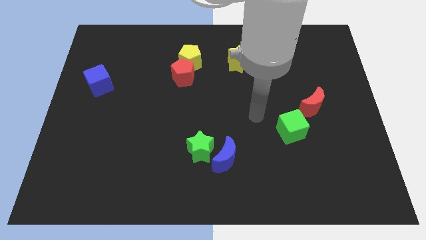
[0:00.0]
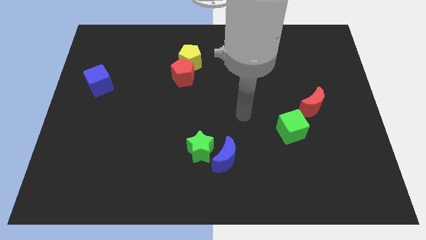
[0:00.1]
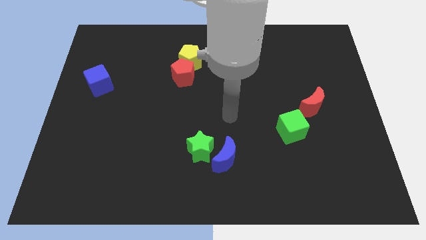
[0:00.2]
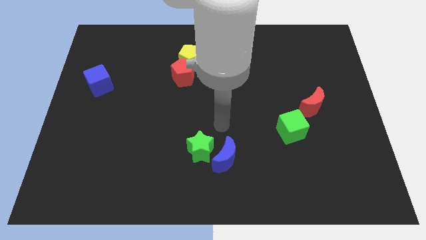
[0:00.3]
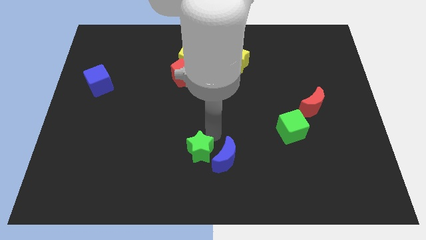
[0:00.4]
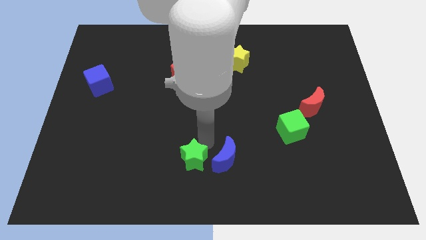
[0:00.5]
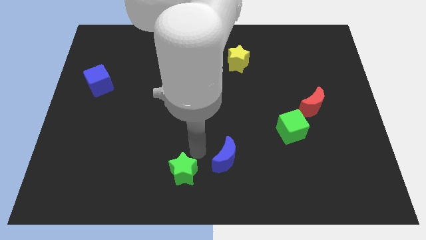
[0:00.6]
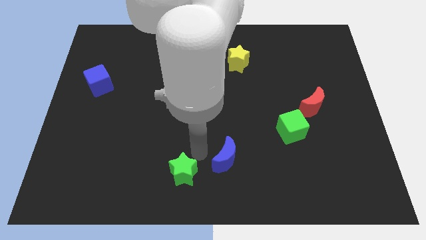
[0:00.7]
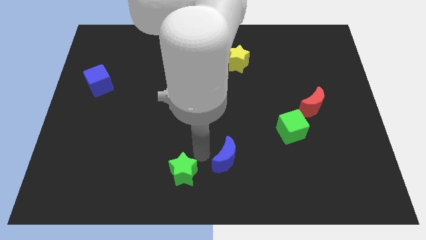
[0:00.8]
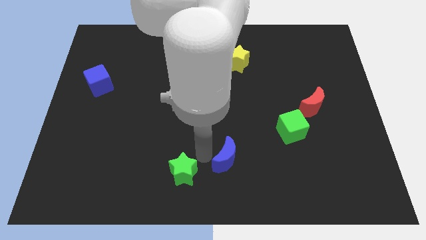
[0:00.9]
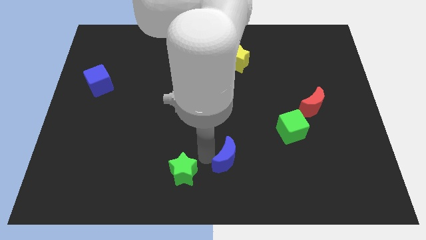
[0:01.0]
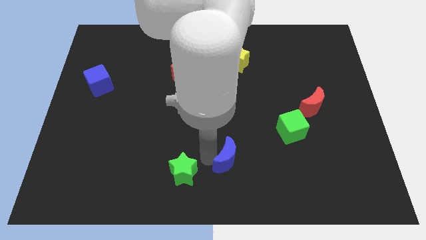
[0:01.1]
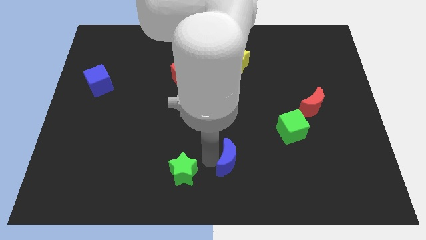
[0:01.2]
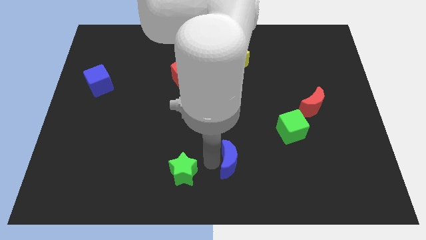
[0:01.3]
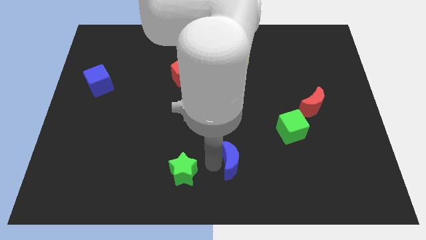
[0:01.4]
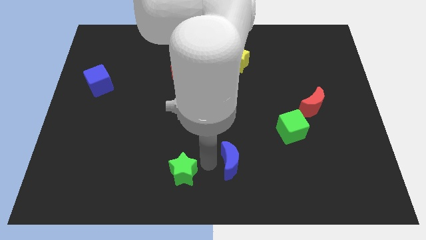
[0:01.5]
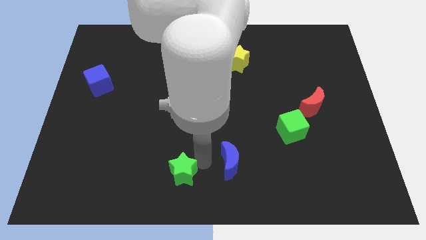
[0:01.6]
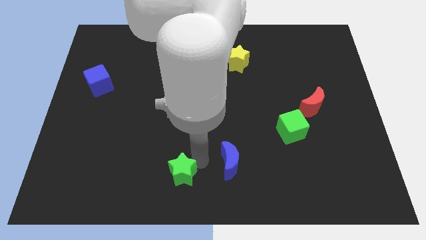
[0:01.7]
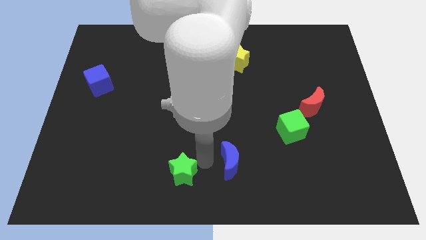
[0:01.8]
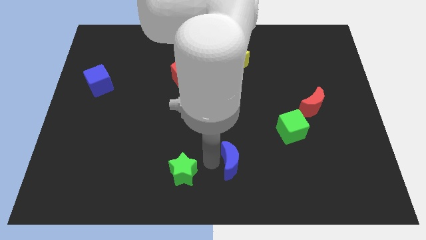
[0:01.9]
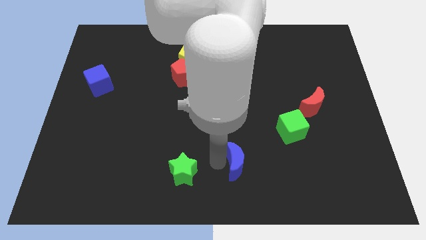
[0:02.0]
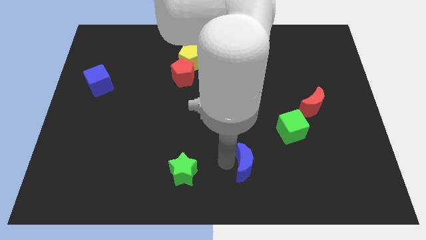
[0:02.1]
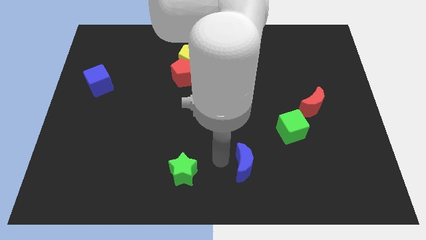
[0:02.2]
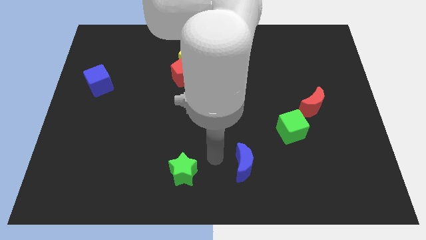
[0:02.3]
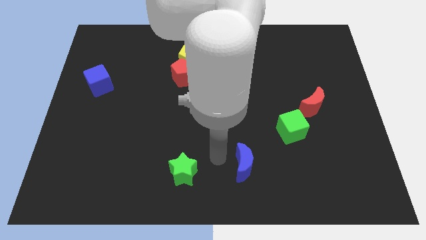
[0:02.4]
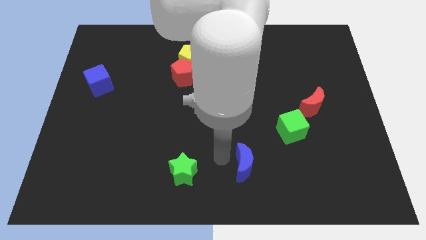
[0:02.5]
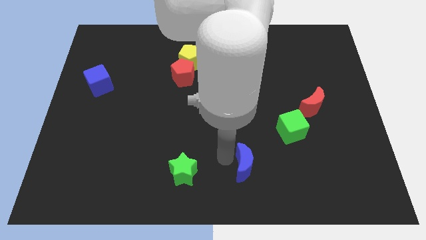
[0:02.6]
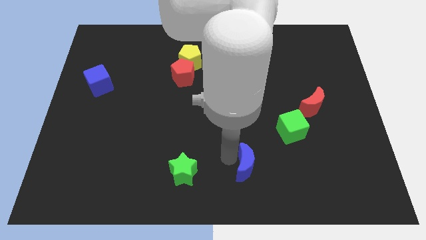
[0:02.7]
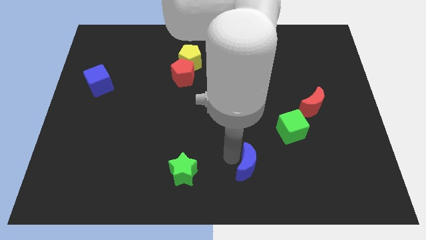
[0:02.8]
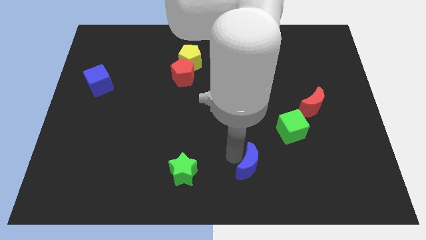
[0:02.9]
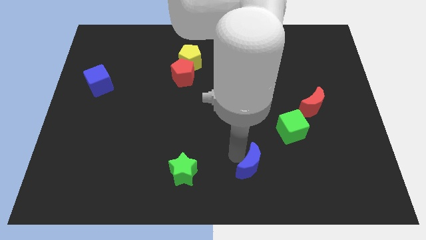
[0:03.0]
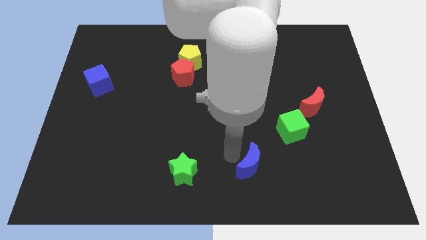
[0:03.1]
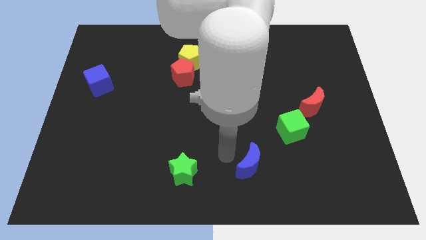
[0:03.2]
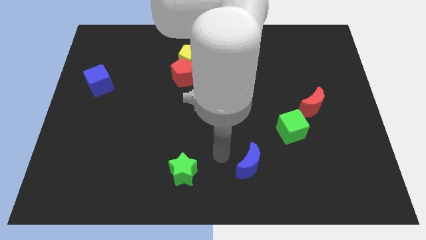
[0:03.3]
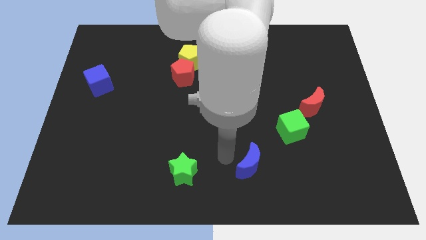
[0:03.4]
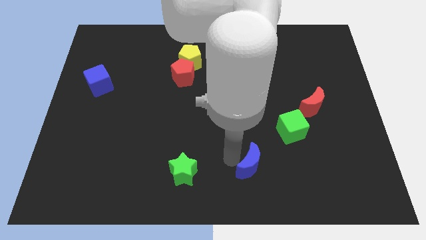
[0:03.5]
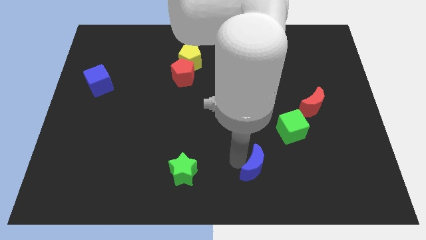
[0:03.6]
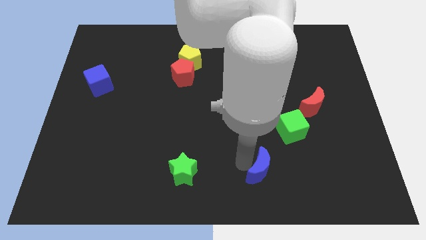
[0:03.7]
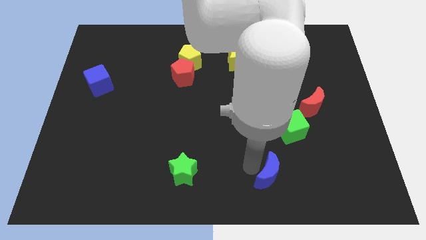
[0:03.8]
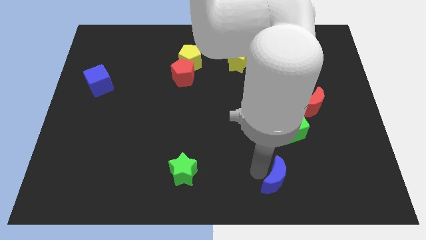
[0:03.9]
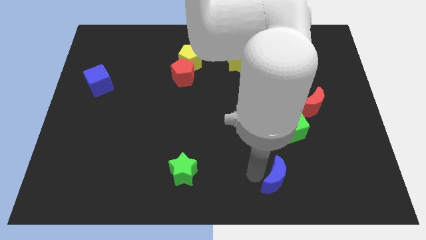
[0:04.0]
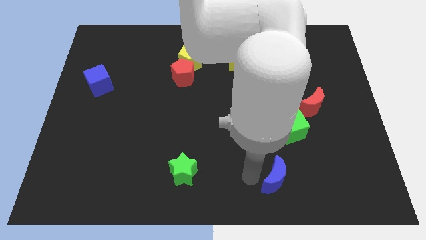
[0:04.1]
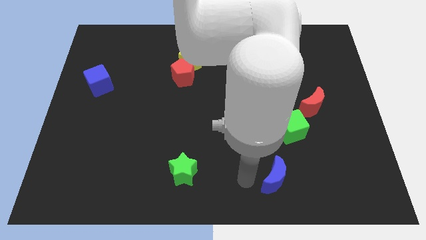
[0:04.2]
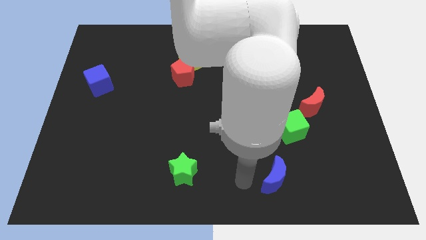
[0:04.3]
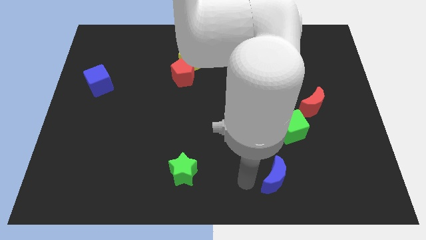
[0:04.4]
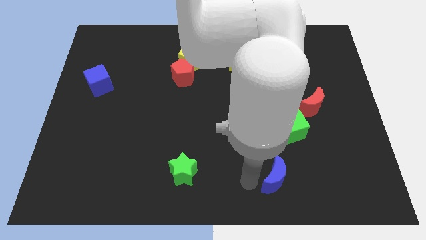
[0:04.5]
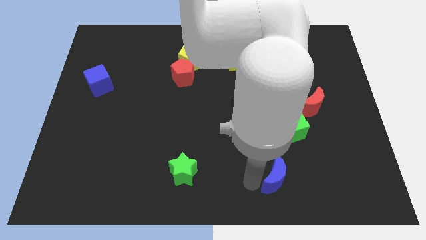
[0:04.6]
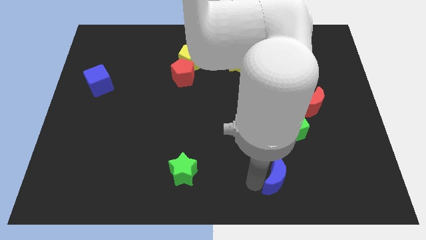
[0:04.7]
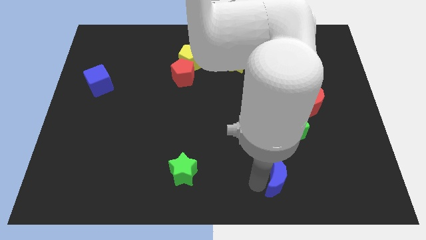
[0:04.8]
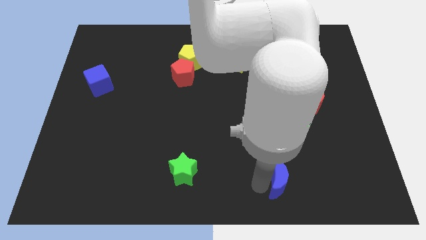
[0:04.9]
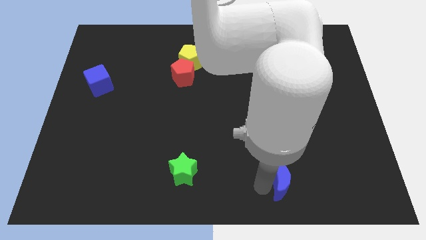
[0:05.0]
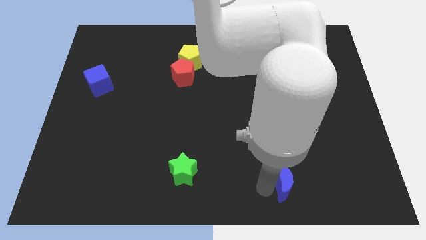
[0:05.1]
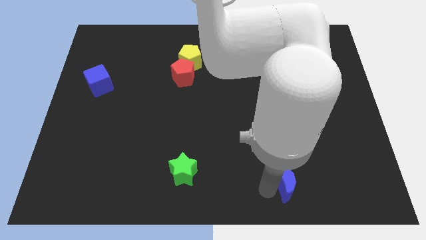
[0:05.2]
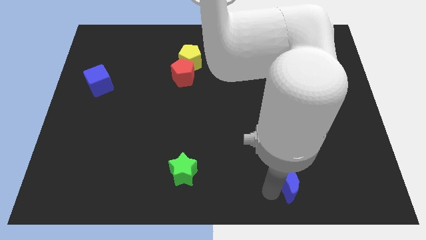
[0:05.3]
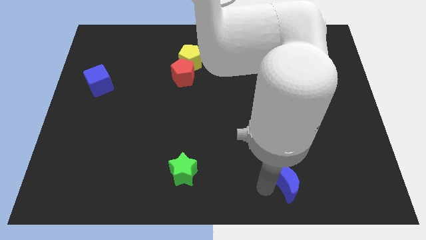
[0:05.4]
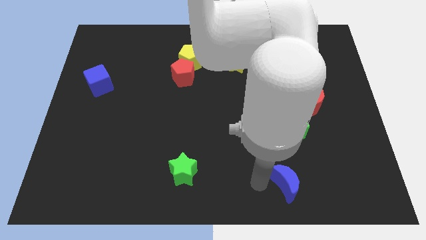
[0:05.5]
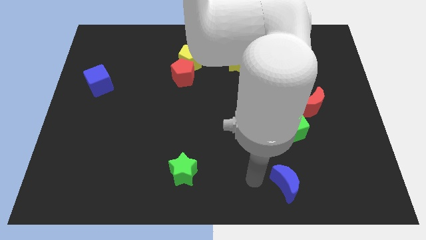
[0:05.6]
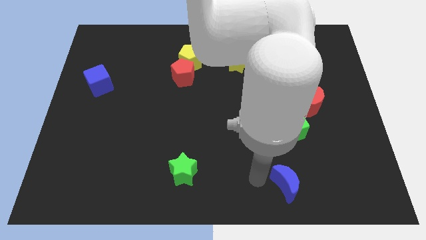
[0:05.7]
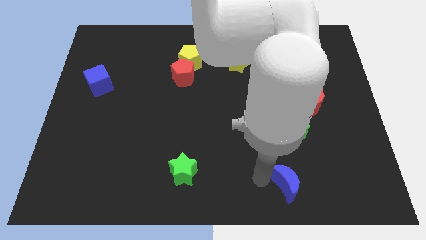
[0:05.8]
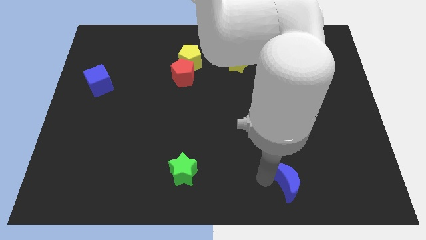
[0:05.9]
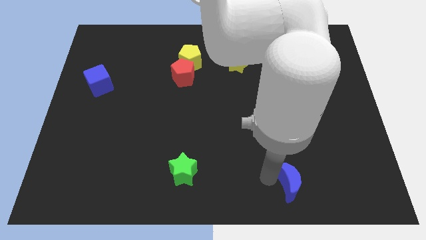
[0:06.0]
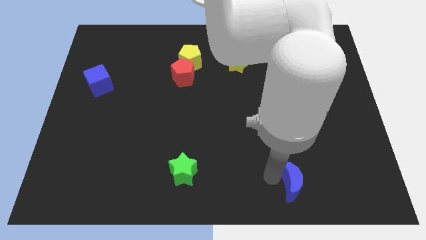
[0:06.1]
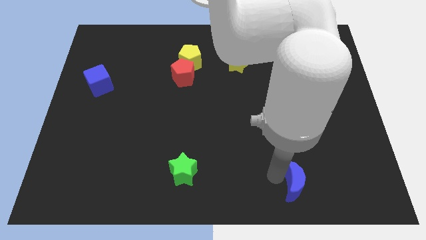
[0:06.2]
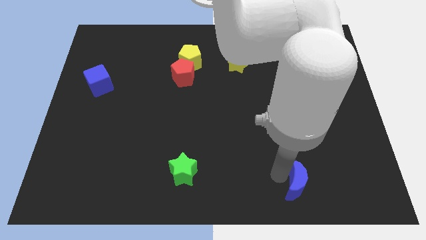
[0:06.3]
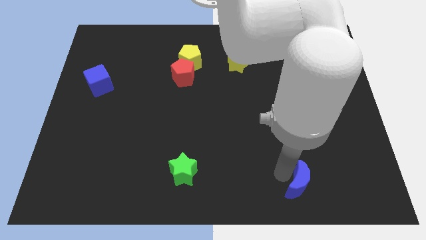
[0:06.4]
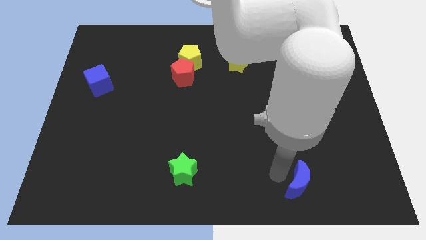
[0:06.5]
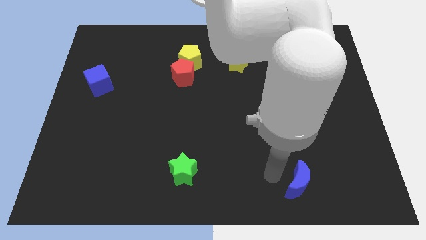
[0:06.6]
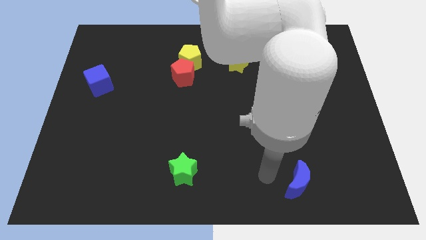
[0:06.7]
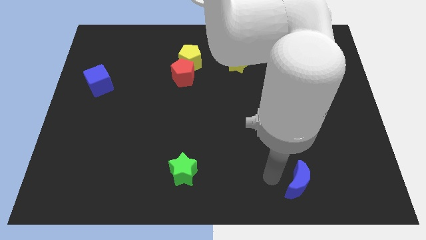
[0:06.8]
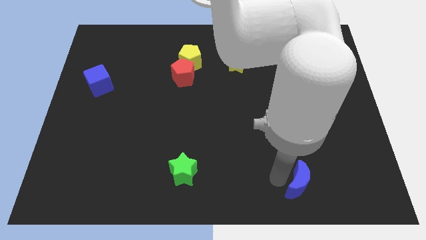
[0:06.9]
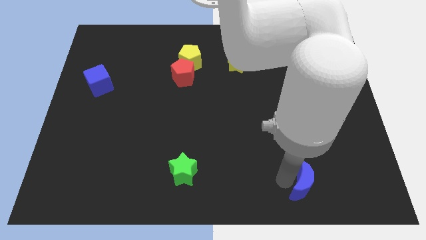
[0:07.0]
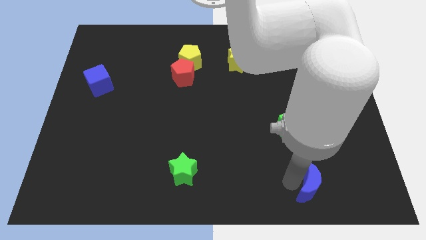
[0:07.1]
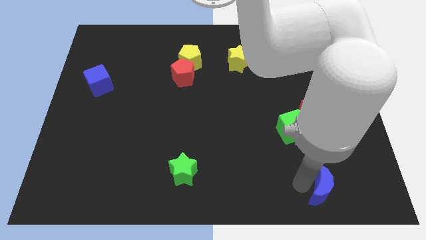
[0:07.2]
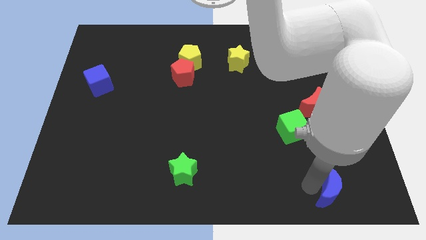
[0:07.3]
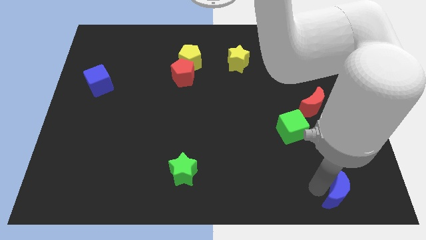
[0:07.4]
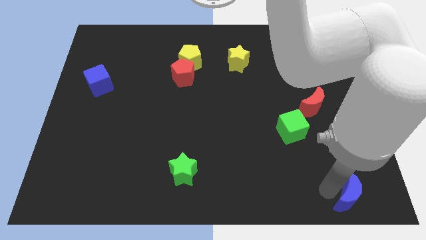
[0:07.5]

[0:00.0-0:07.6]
push the blue moon to the bottom right of the board
